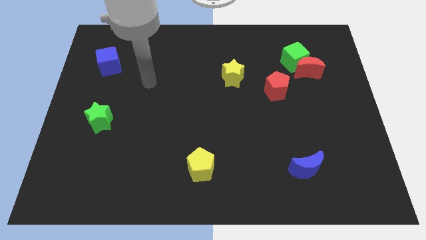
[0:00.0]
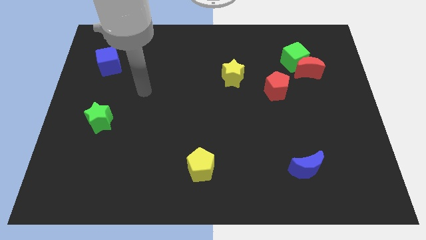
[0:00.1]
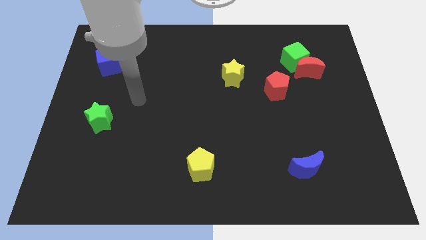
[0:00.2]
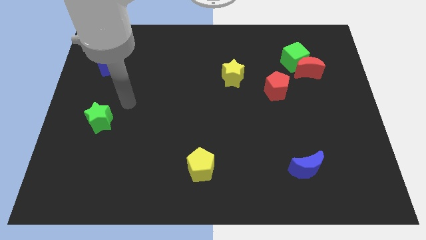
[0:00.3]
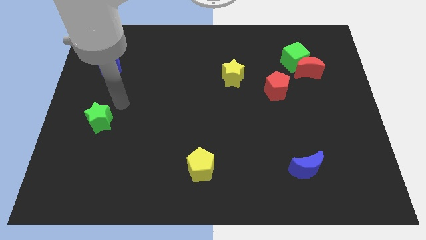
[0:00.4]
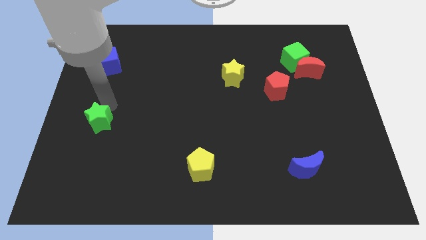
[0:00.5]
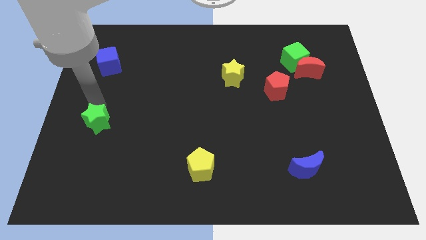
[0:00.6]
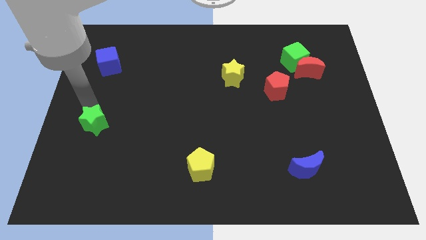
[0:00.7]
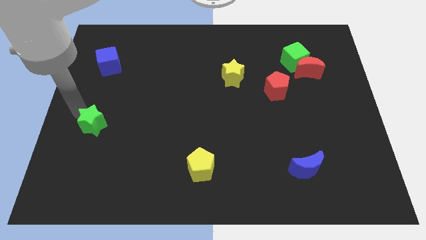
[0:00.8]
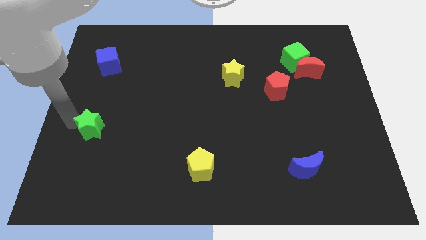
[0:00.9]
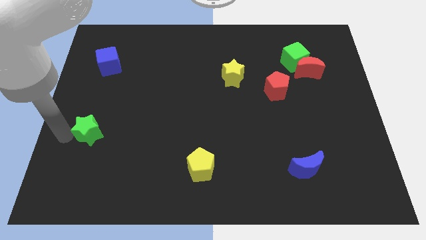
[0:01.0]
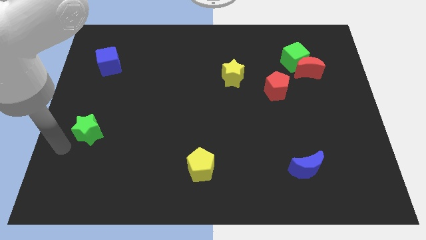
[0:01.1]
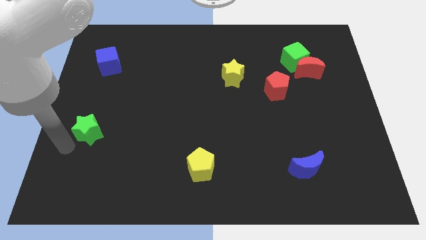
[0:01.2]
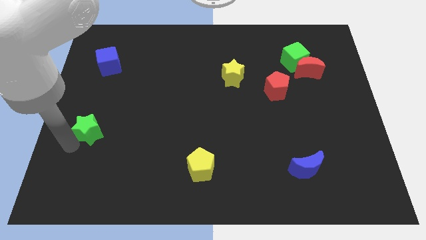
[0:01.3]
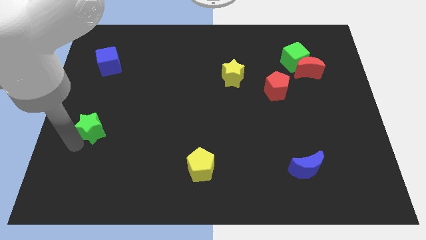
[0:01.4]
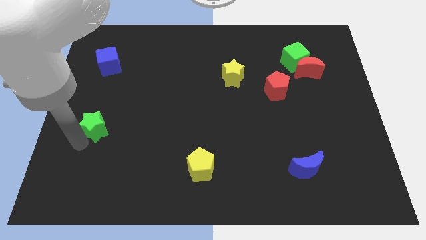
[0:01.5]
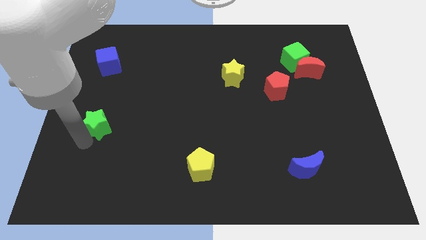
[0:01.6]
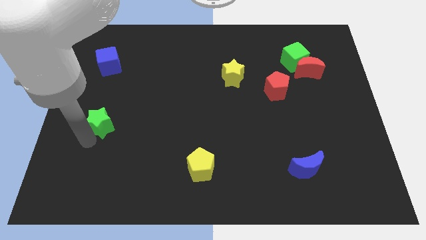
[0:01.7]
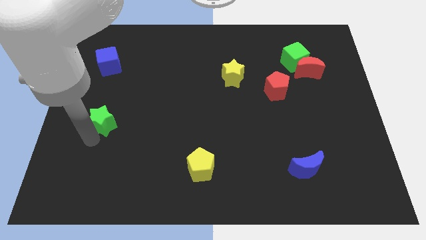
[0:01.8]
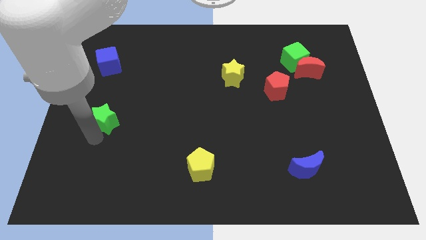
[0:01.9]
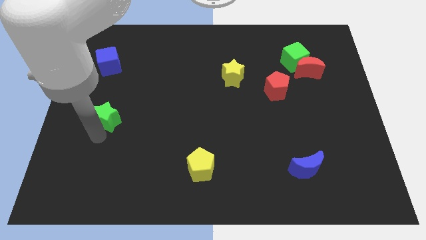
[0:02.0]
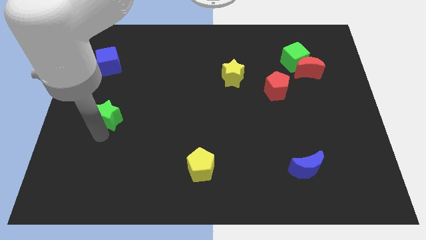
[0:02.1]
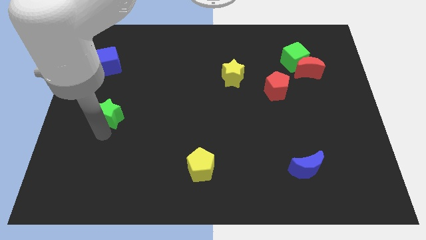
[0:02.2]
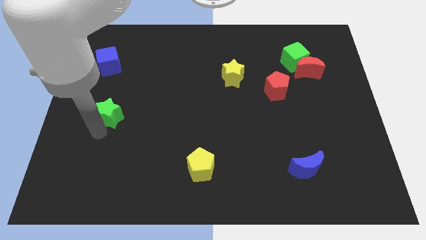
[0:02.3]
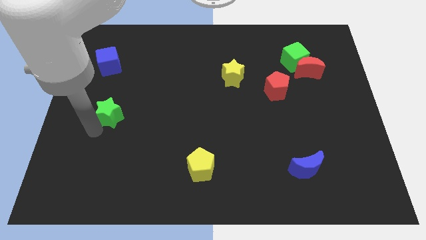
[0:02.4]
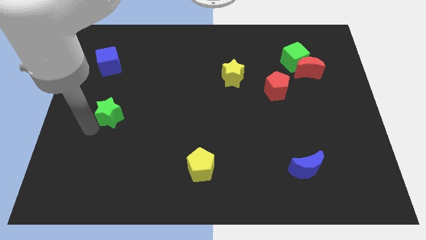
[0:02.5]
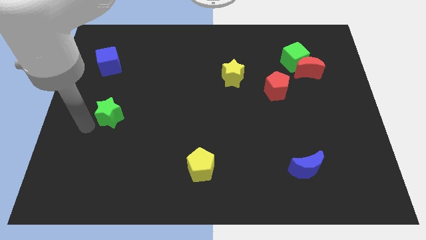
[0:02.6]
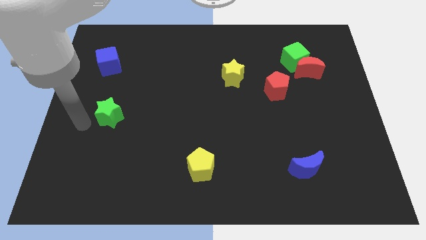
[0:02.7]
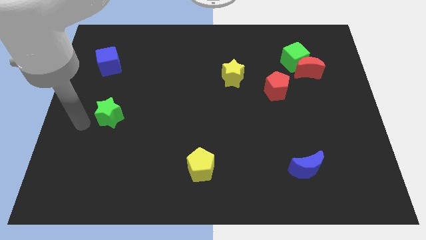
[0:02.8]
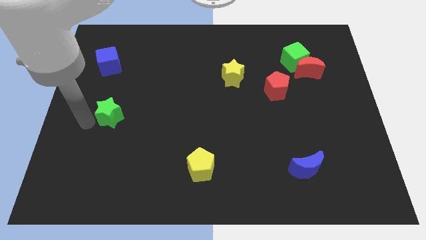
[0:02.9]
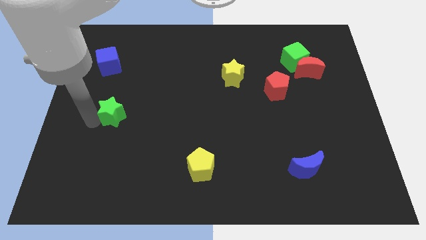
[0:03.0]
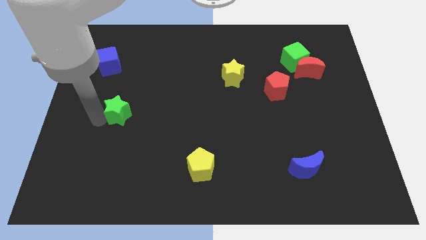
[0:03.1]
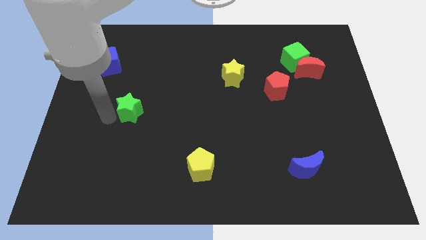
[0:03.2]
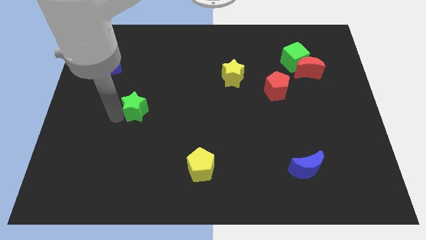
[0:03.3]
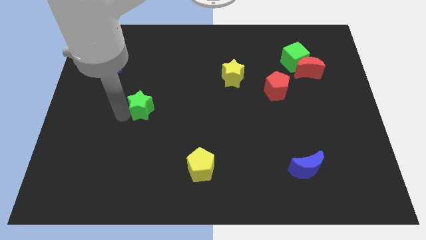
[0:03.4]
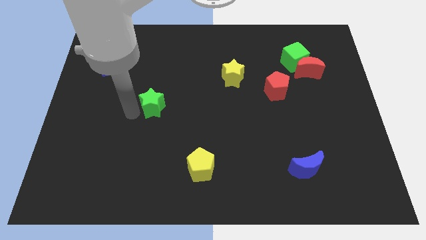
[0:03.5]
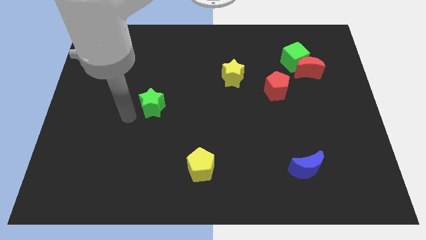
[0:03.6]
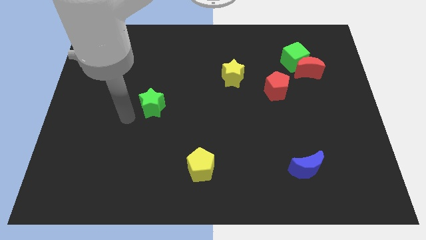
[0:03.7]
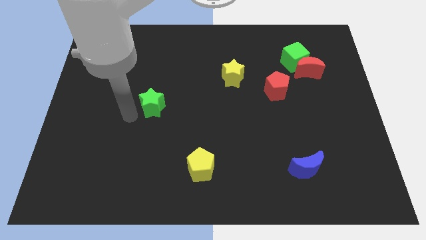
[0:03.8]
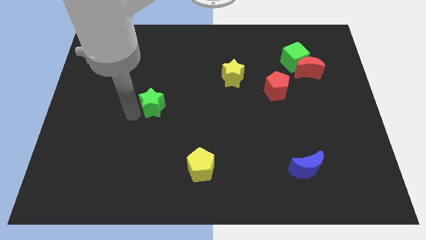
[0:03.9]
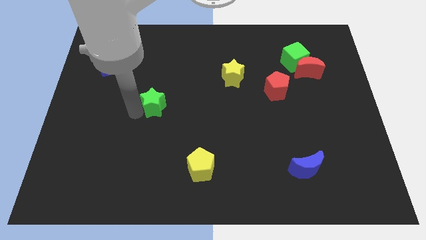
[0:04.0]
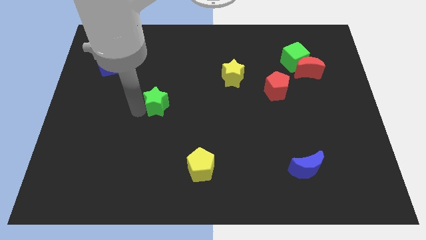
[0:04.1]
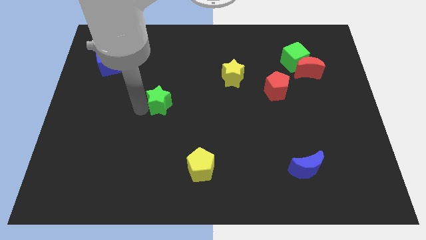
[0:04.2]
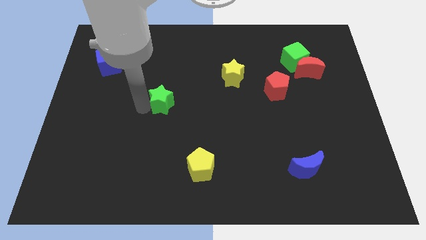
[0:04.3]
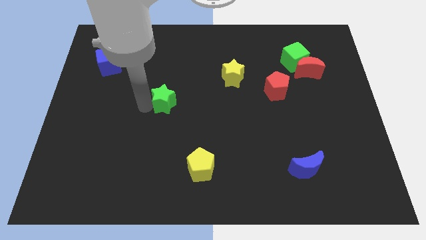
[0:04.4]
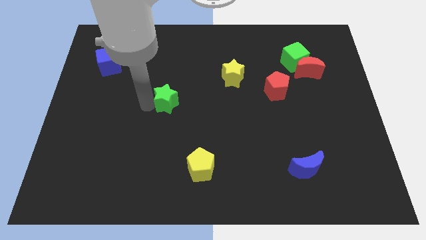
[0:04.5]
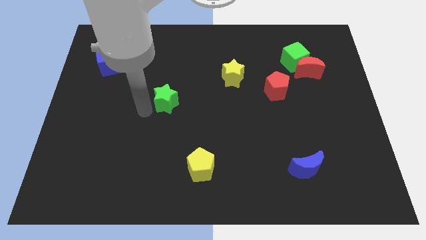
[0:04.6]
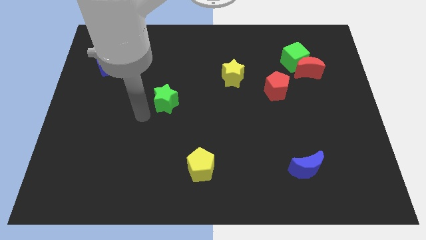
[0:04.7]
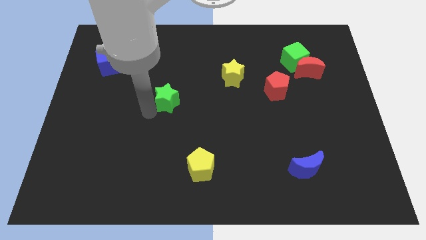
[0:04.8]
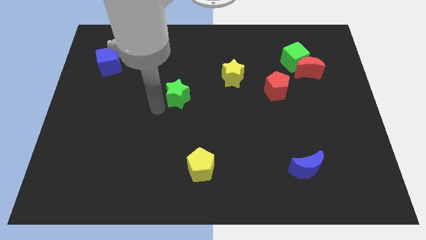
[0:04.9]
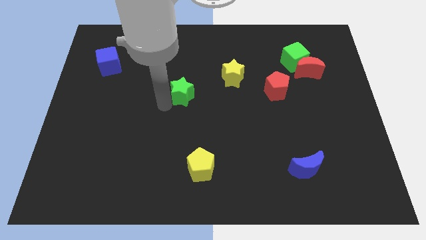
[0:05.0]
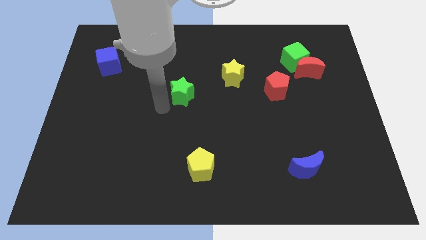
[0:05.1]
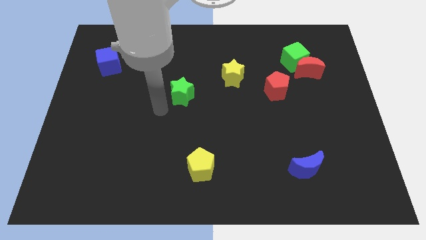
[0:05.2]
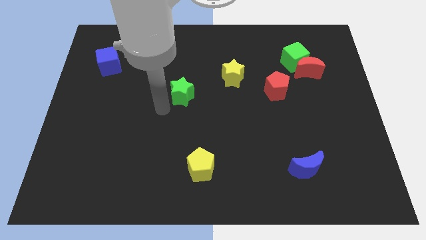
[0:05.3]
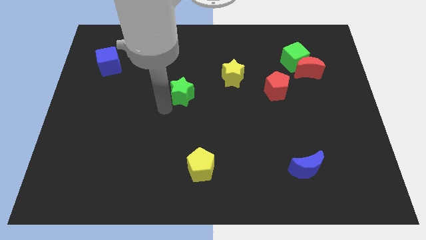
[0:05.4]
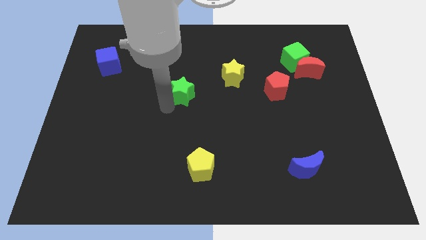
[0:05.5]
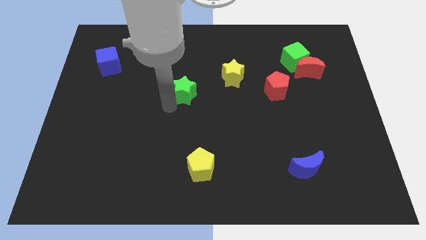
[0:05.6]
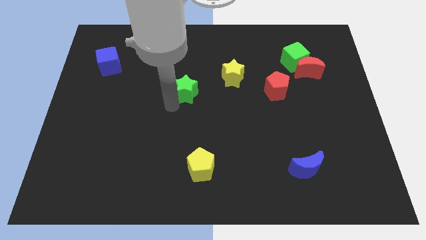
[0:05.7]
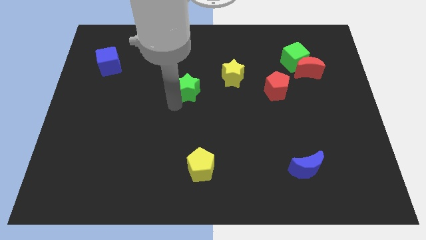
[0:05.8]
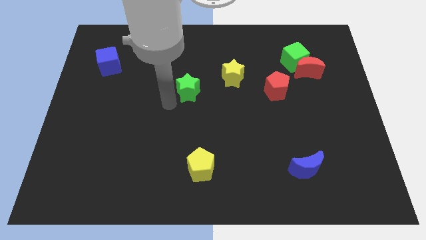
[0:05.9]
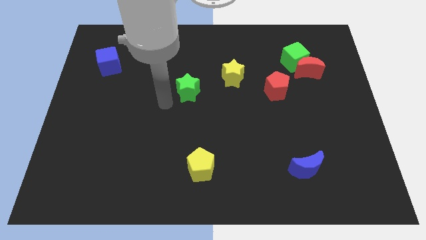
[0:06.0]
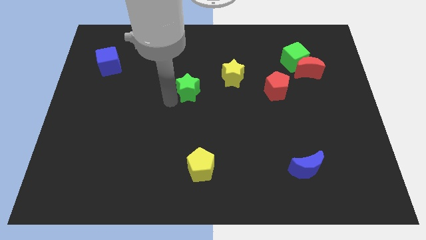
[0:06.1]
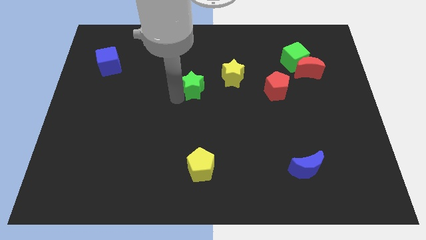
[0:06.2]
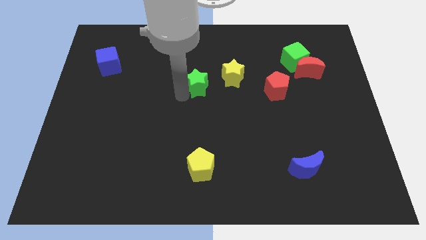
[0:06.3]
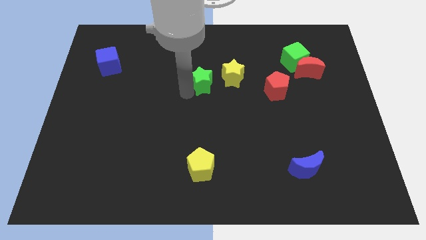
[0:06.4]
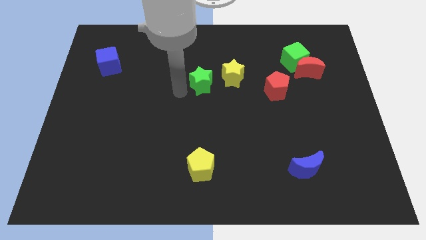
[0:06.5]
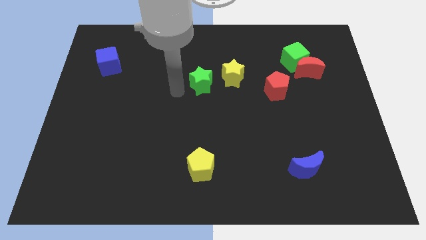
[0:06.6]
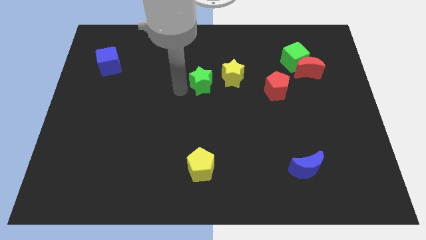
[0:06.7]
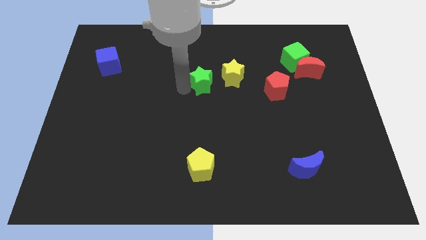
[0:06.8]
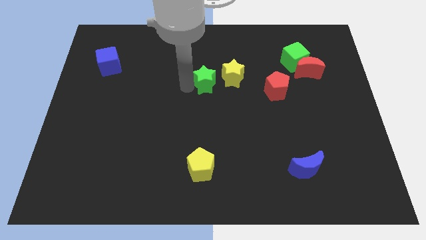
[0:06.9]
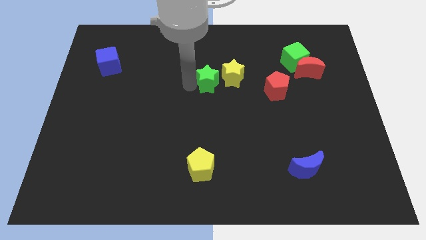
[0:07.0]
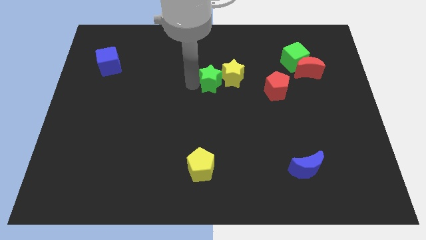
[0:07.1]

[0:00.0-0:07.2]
push the green star towards the yellow star

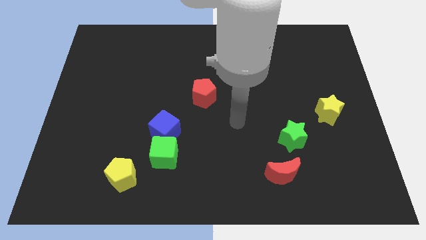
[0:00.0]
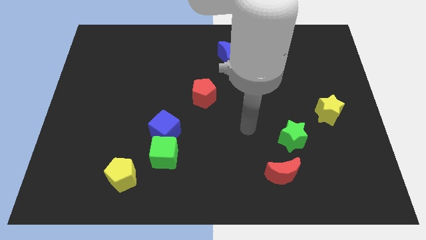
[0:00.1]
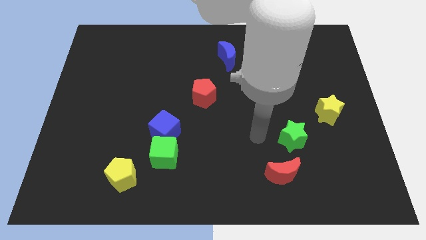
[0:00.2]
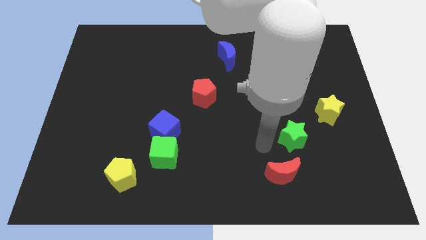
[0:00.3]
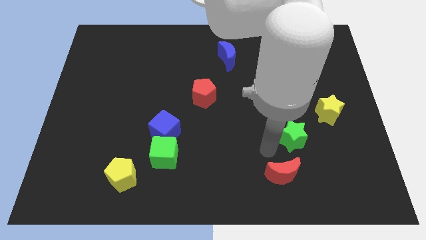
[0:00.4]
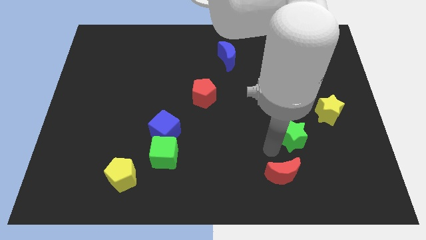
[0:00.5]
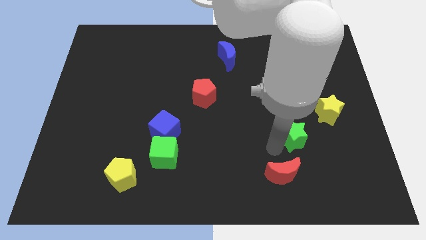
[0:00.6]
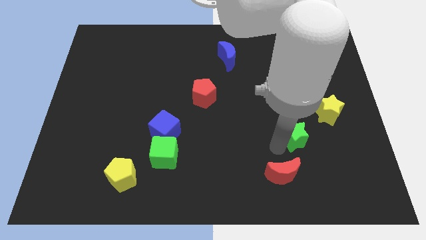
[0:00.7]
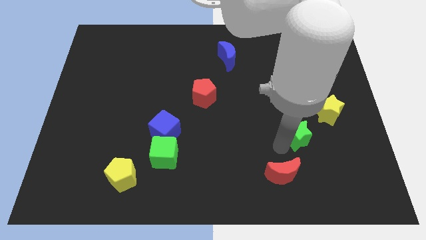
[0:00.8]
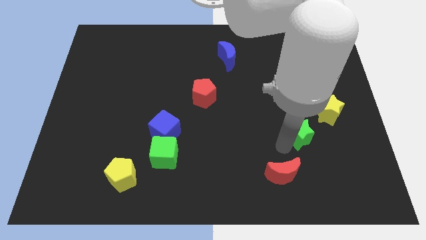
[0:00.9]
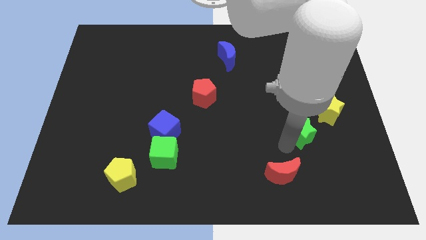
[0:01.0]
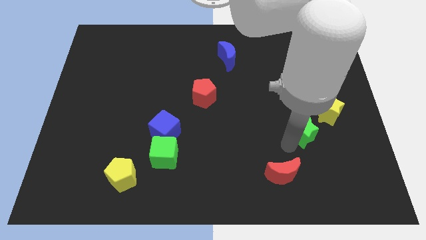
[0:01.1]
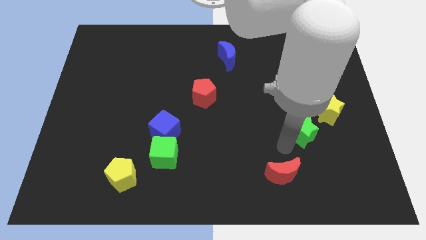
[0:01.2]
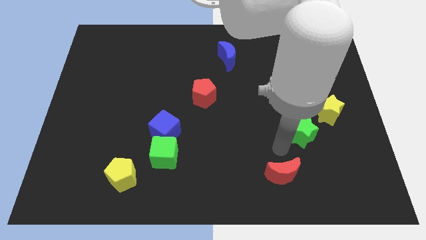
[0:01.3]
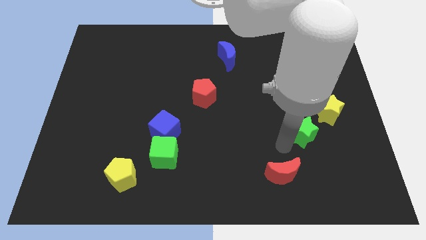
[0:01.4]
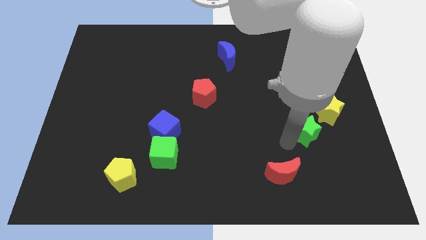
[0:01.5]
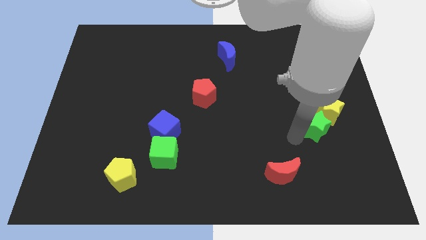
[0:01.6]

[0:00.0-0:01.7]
slide the green star to the yellow star
